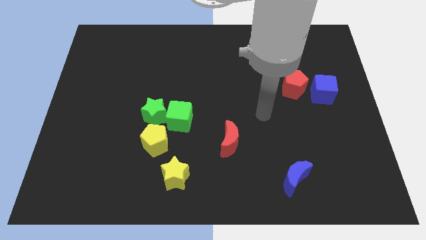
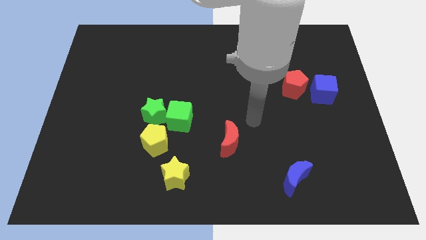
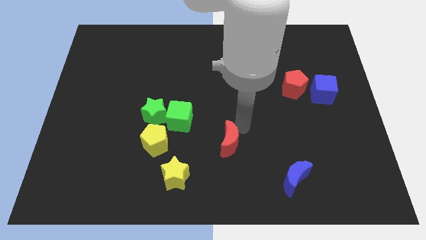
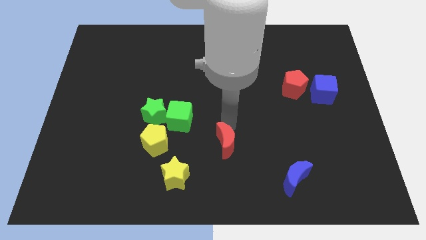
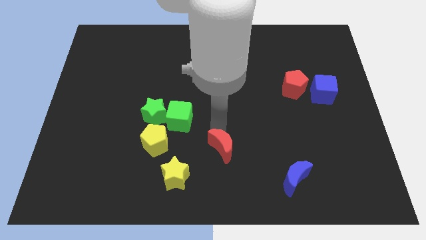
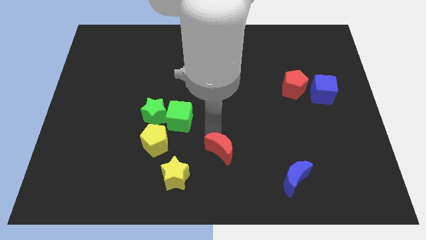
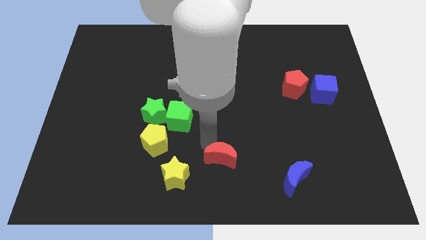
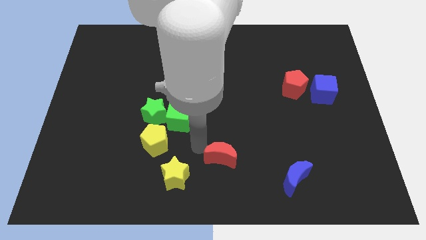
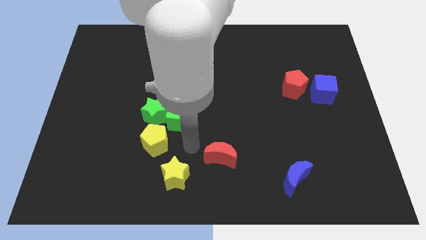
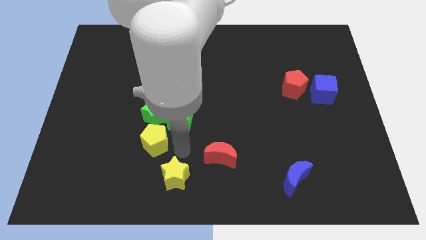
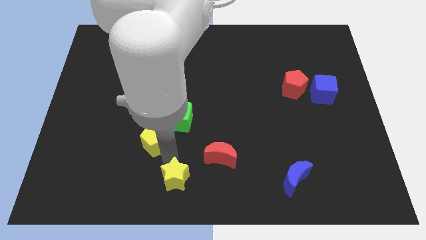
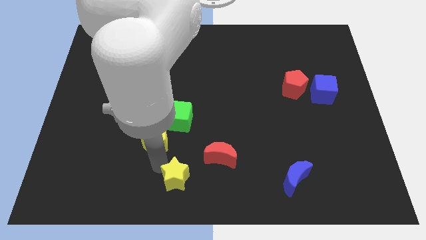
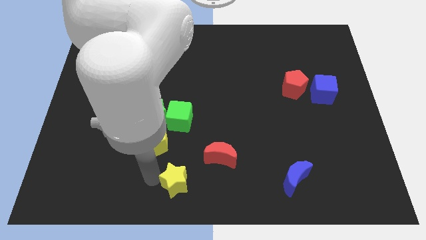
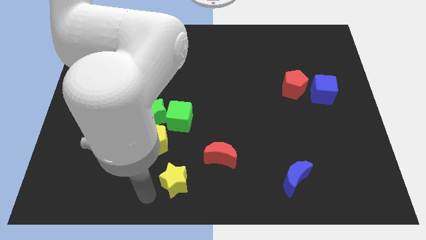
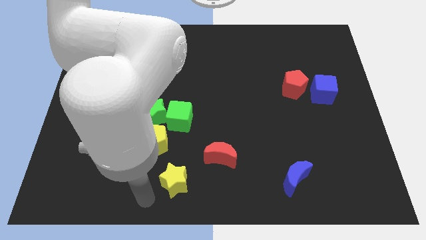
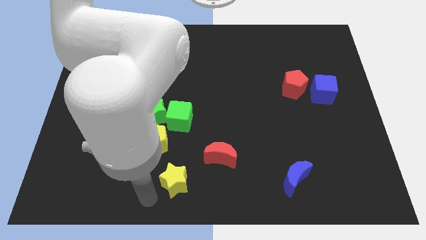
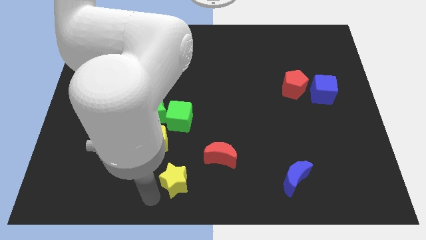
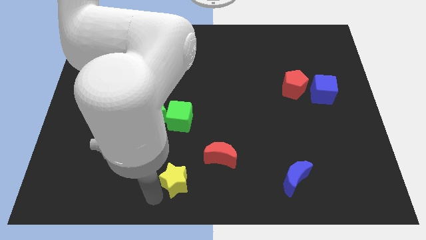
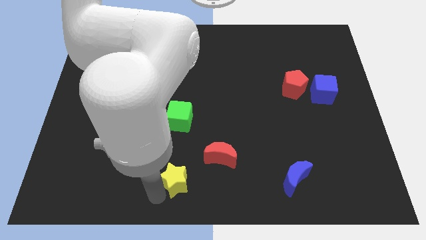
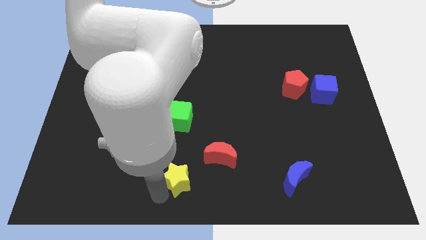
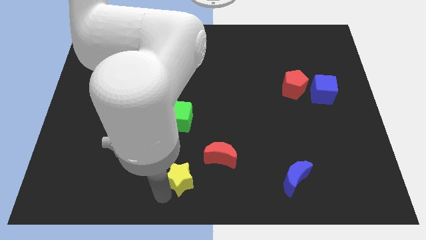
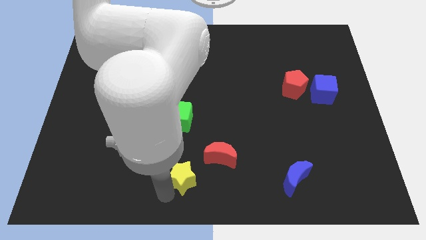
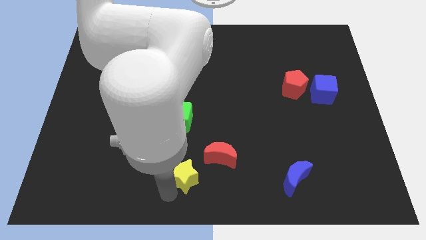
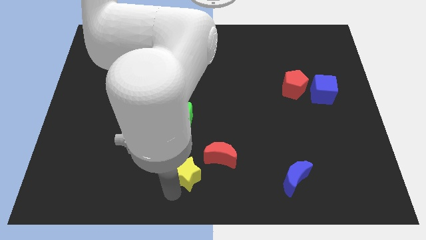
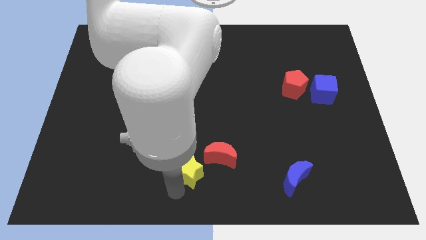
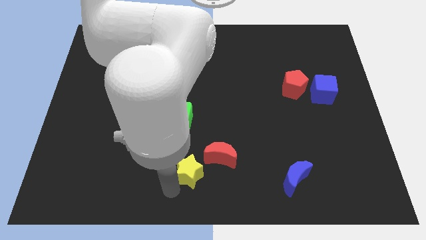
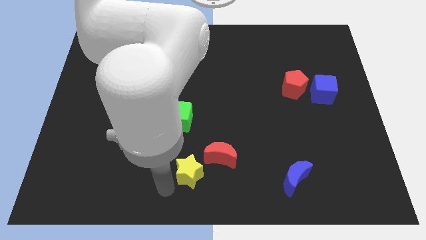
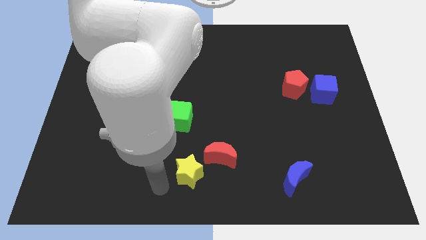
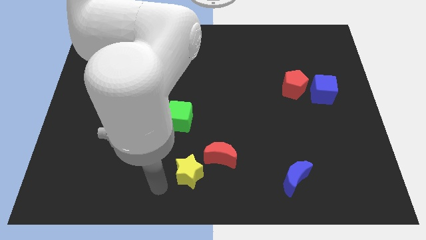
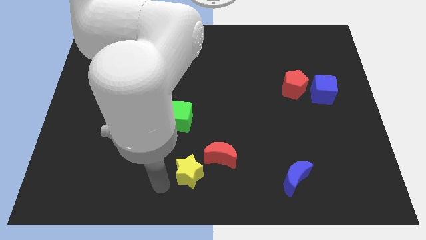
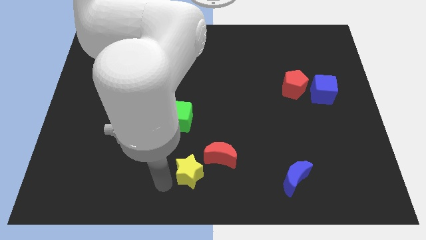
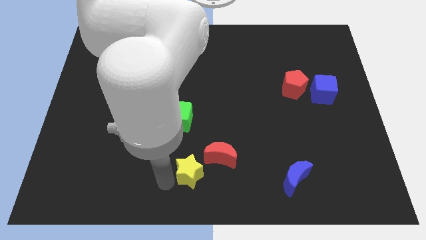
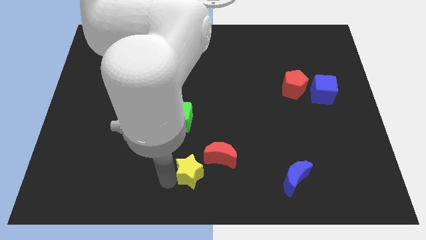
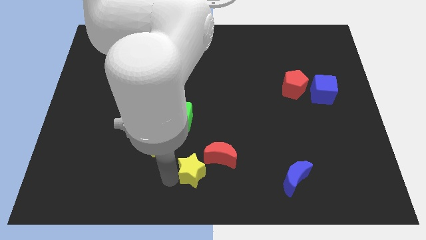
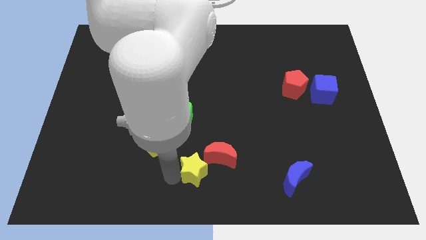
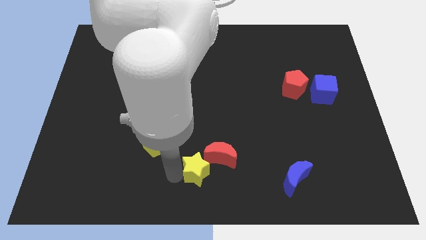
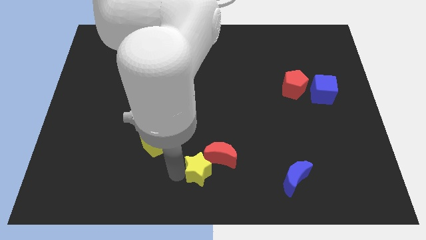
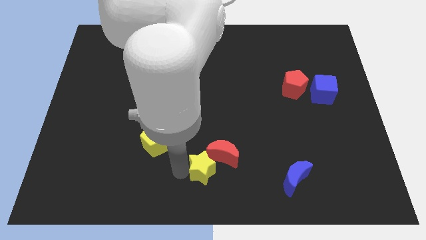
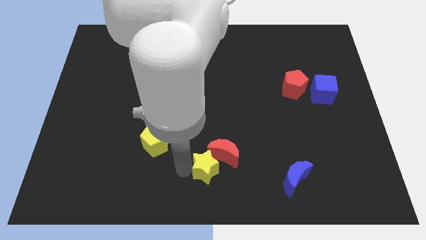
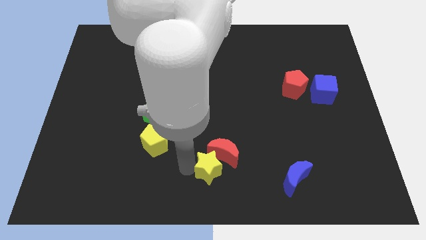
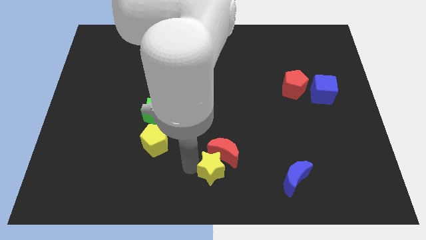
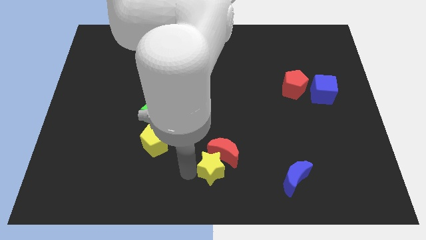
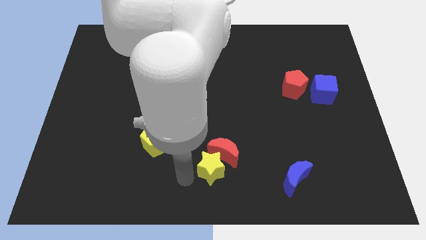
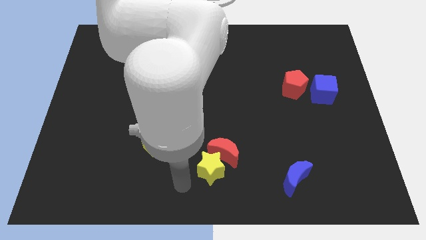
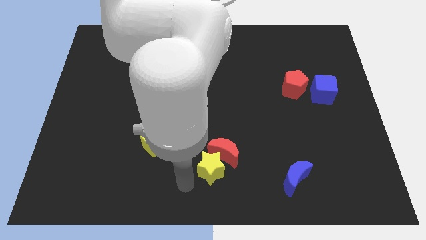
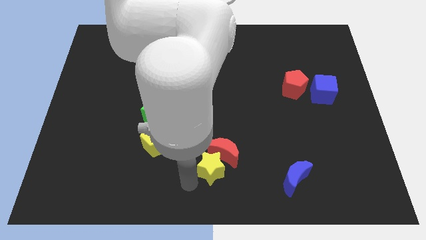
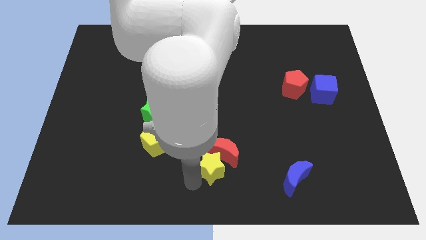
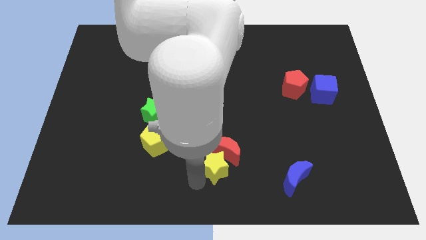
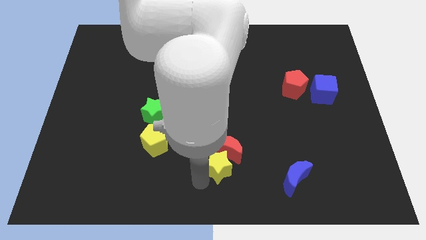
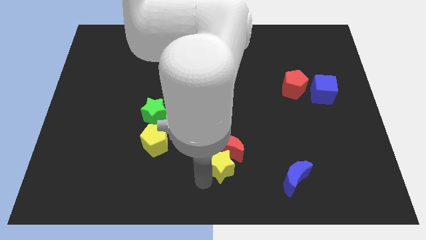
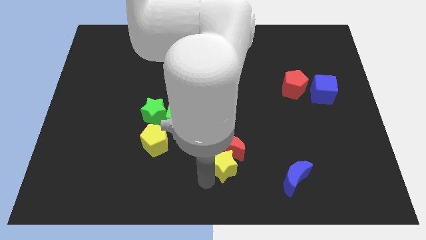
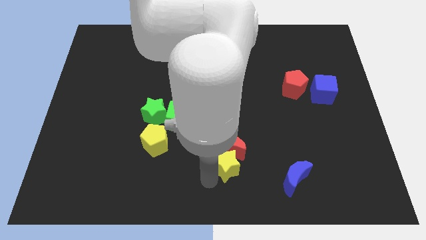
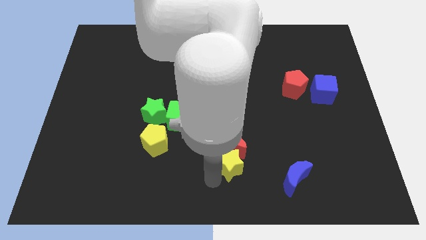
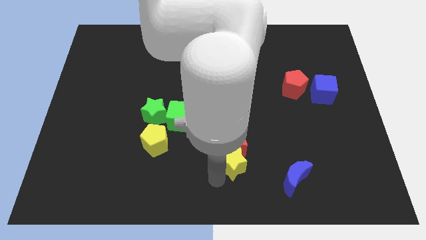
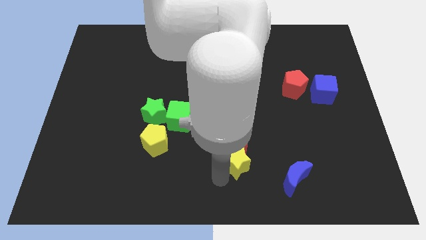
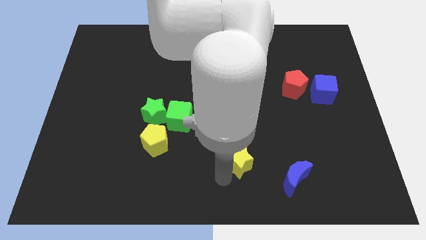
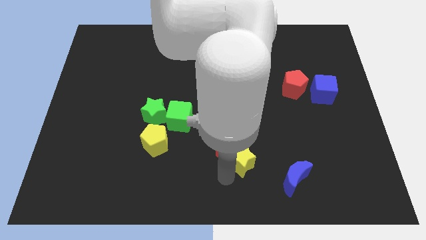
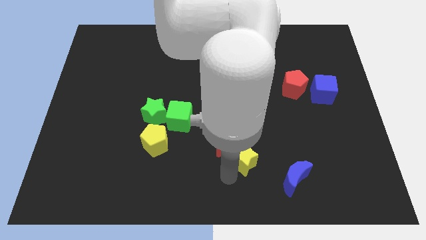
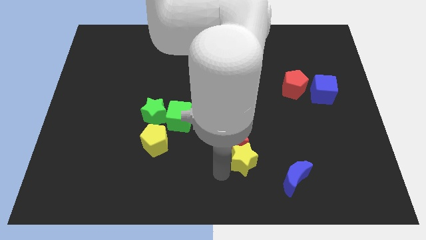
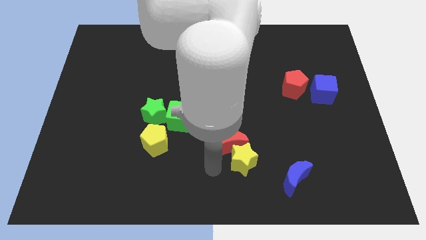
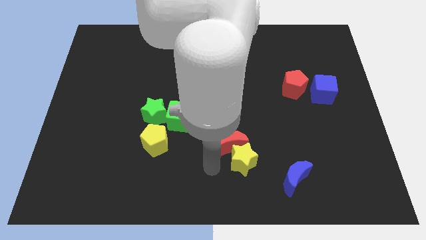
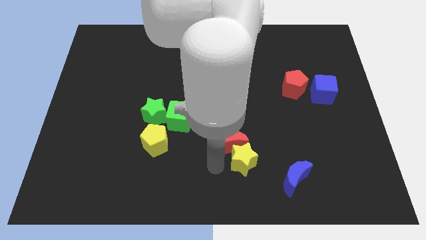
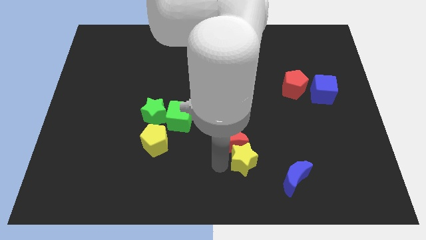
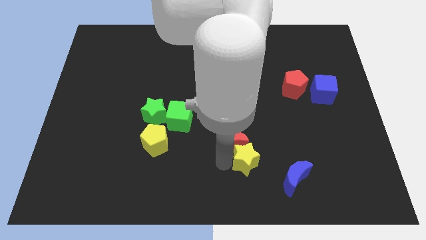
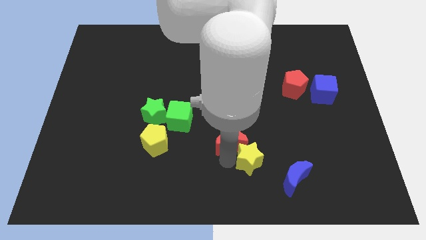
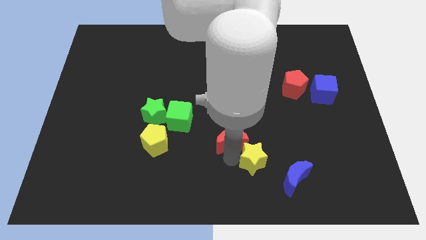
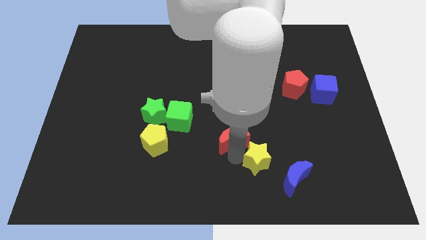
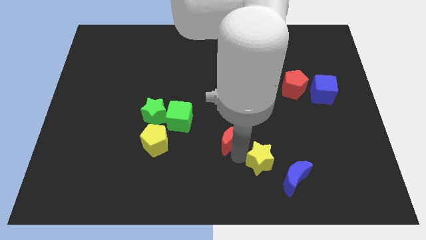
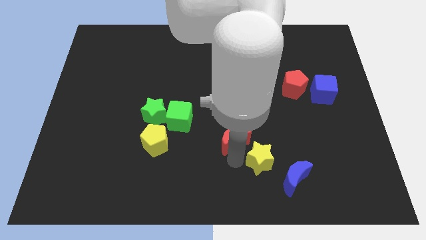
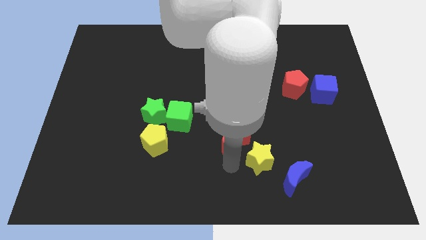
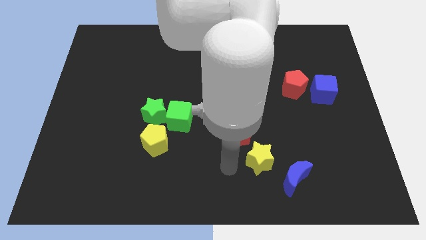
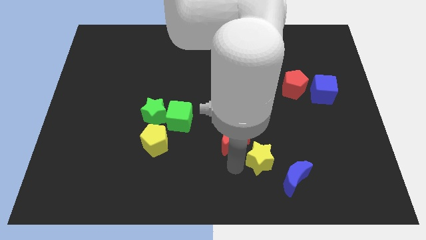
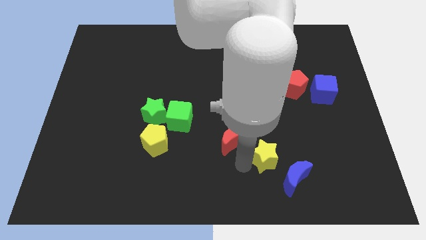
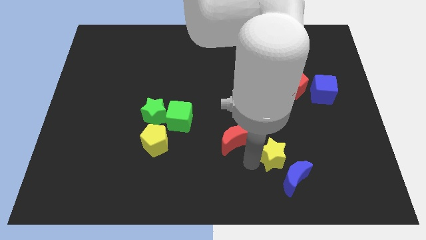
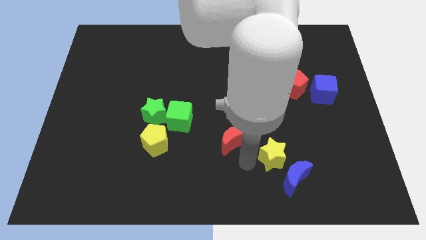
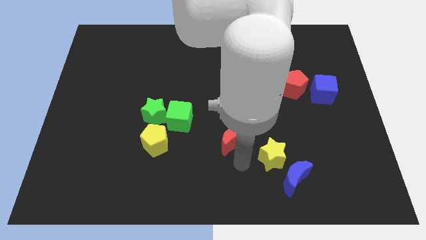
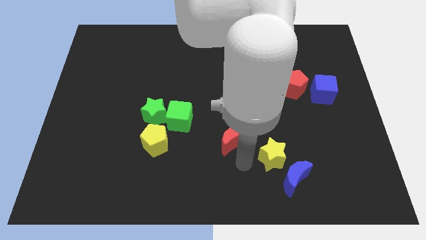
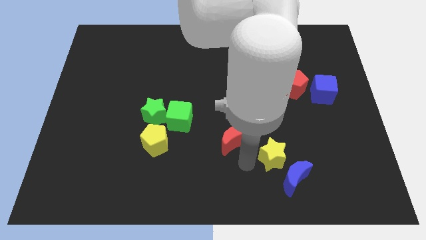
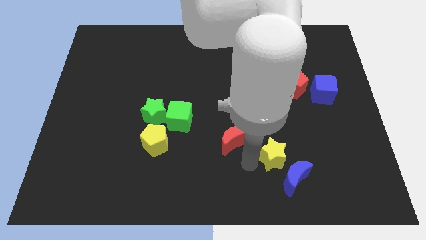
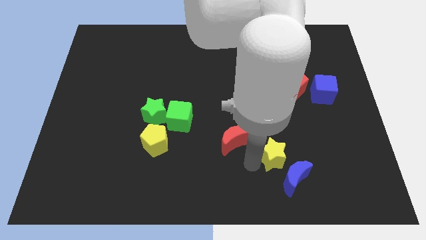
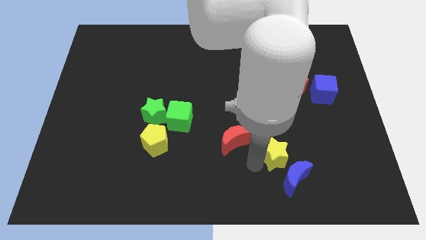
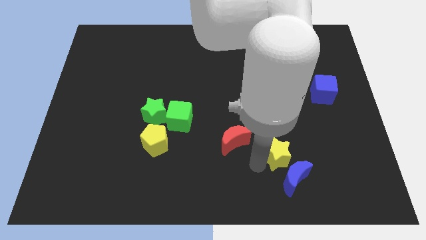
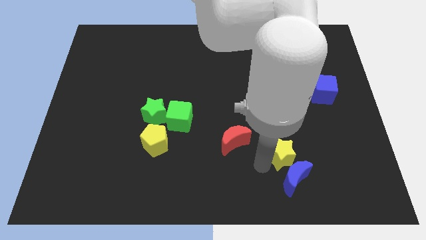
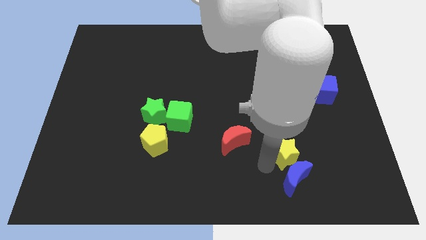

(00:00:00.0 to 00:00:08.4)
push the yellow star to the top right of the blue moon
